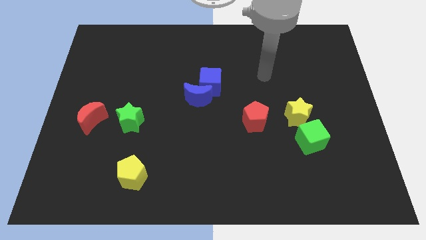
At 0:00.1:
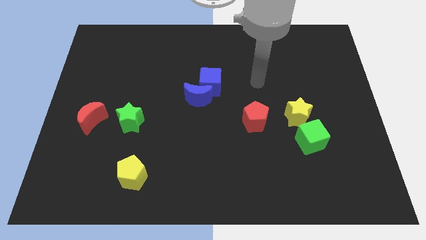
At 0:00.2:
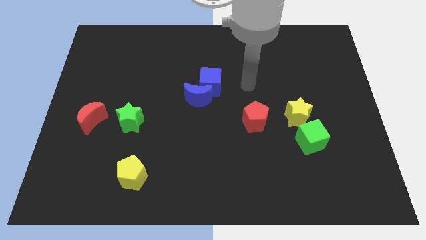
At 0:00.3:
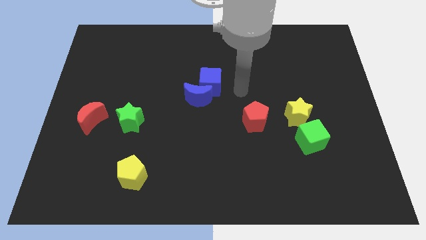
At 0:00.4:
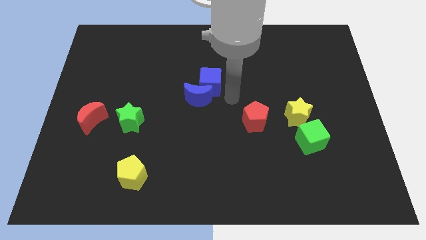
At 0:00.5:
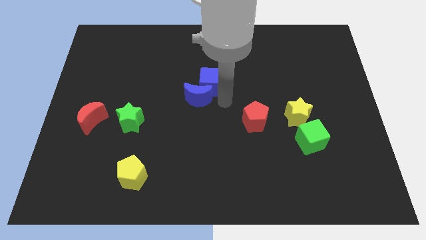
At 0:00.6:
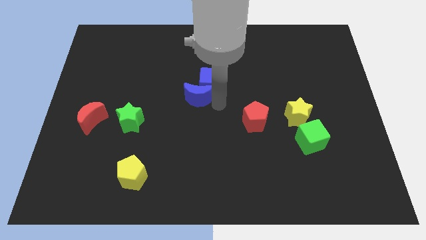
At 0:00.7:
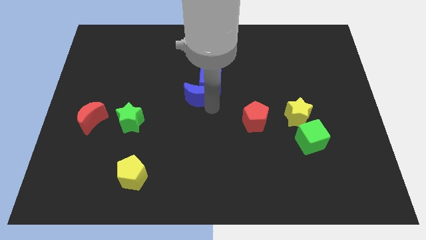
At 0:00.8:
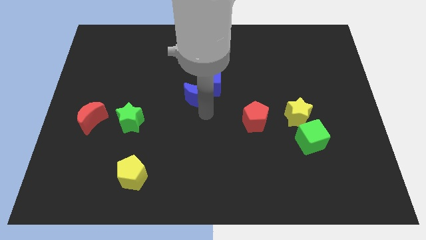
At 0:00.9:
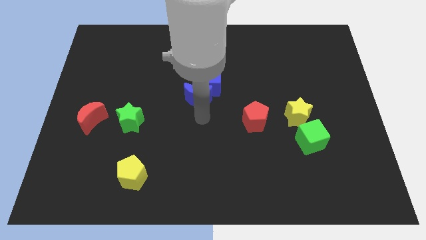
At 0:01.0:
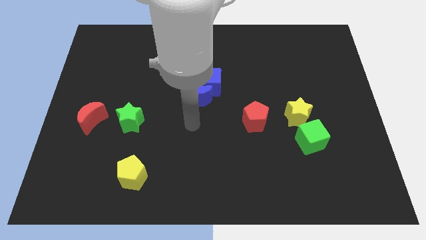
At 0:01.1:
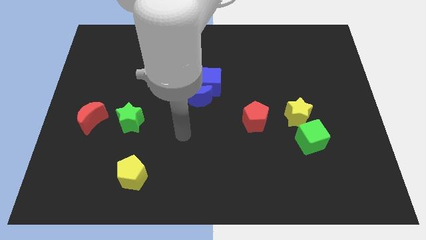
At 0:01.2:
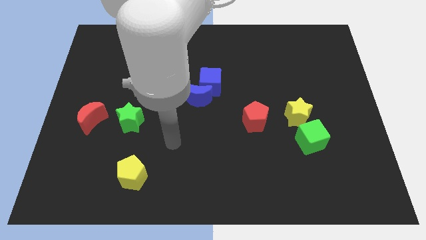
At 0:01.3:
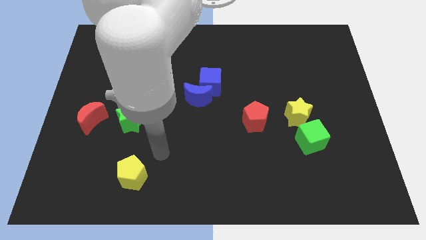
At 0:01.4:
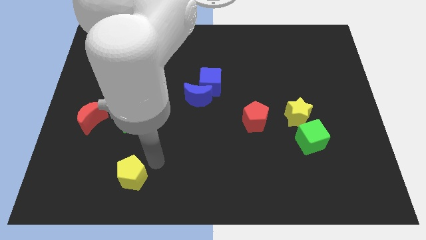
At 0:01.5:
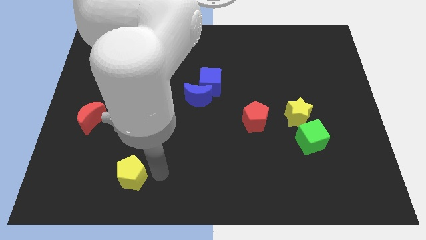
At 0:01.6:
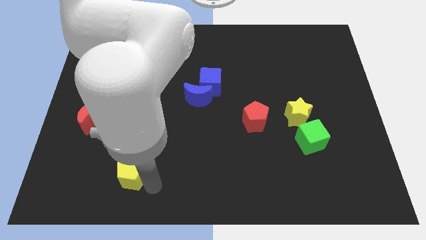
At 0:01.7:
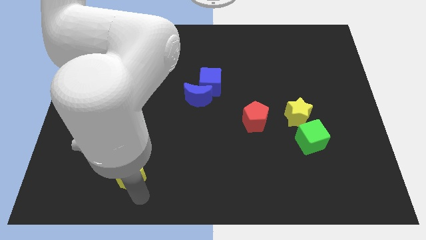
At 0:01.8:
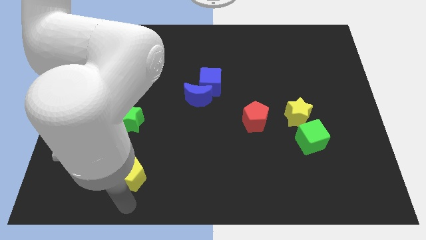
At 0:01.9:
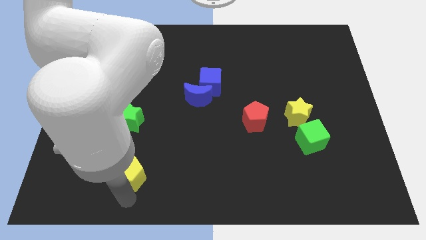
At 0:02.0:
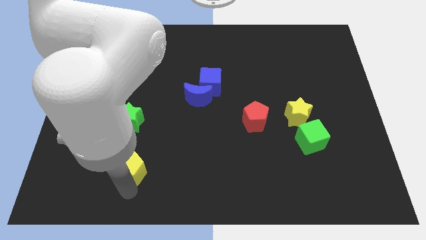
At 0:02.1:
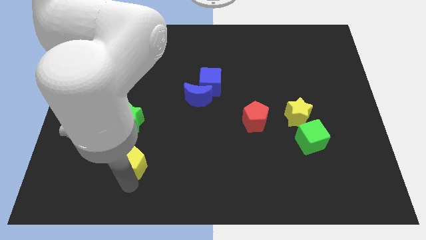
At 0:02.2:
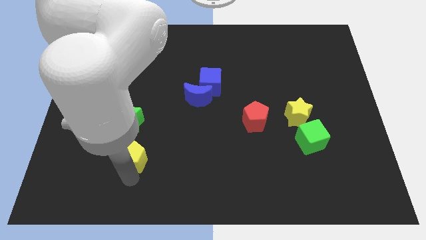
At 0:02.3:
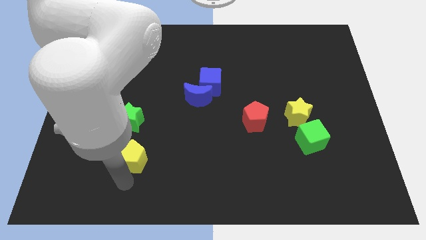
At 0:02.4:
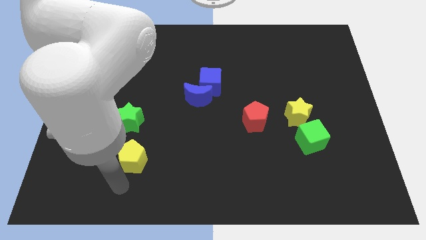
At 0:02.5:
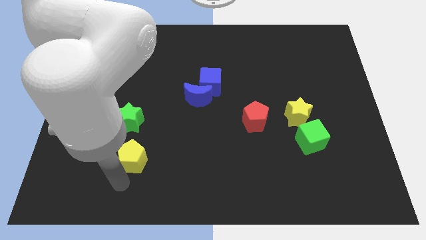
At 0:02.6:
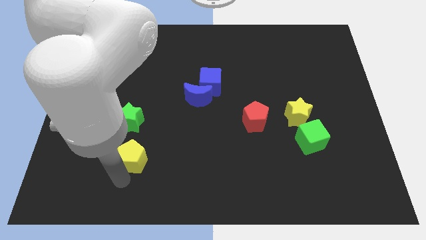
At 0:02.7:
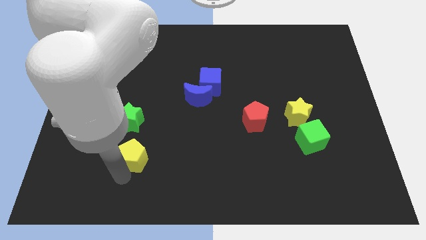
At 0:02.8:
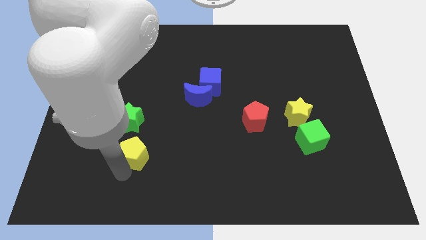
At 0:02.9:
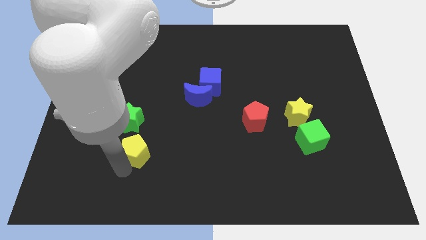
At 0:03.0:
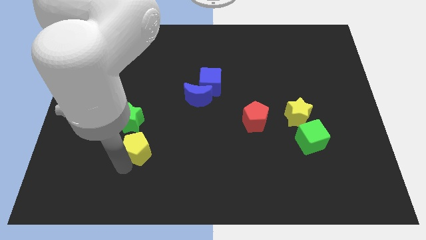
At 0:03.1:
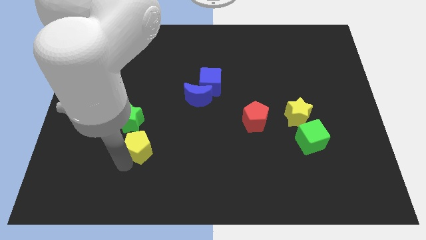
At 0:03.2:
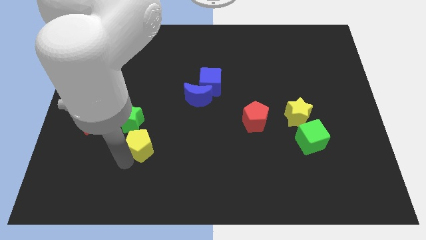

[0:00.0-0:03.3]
slightly slide the yellow pentagon upwards

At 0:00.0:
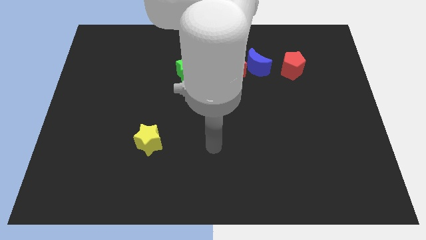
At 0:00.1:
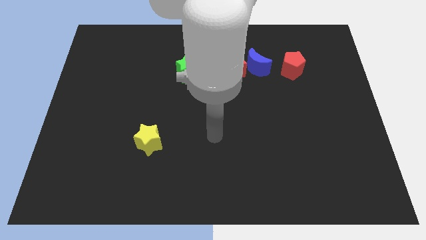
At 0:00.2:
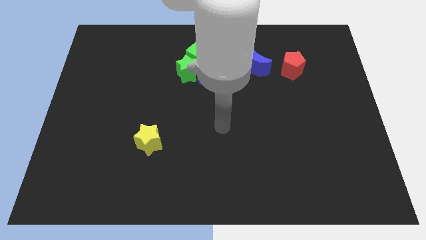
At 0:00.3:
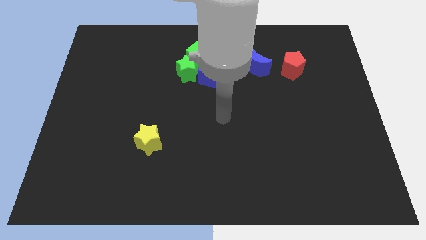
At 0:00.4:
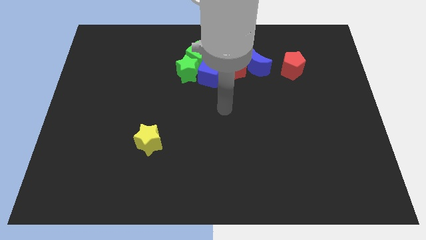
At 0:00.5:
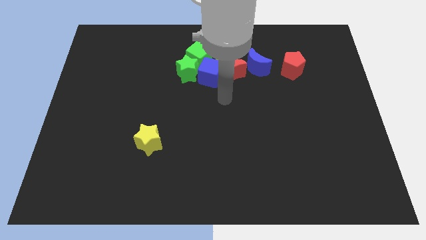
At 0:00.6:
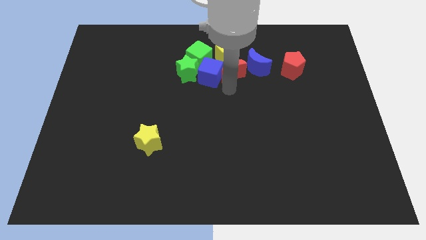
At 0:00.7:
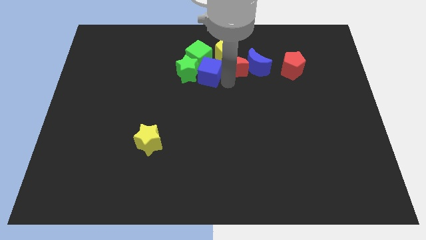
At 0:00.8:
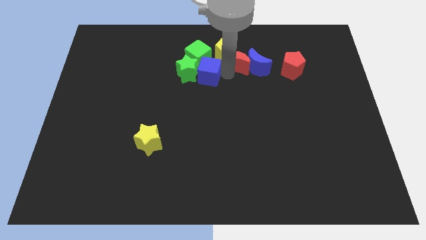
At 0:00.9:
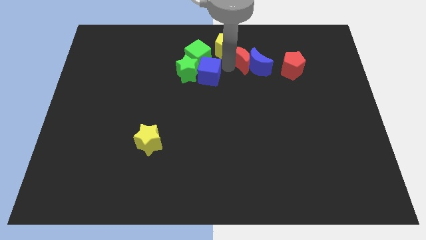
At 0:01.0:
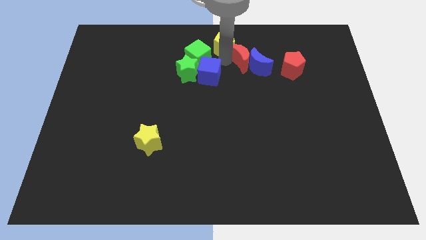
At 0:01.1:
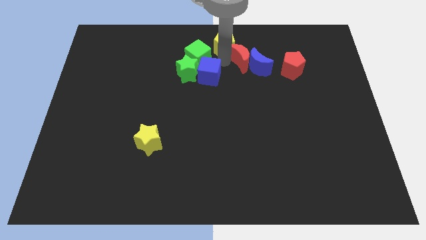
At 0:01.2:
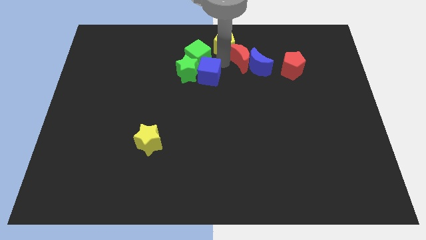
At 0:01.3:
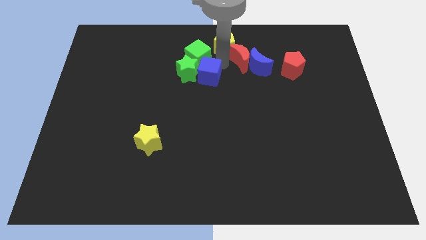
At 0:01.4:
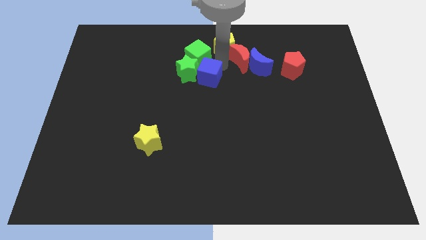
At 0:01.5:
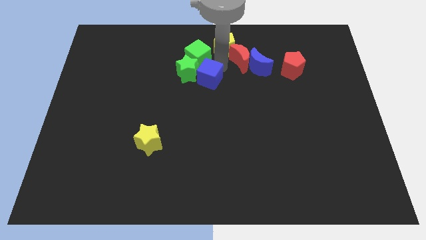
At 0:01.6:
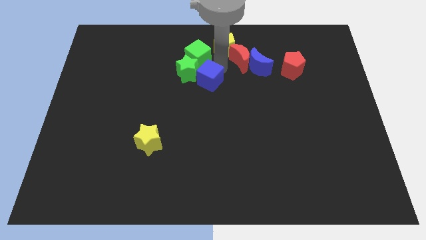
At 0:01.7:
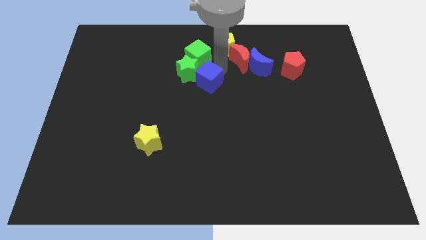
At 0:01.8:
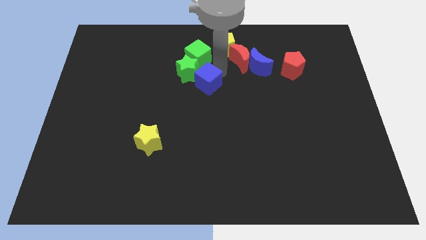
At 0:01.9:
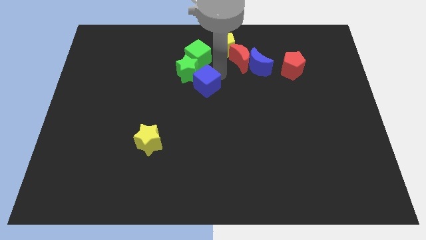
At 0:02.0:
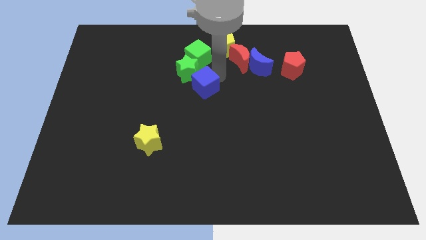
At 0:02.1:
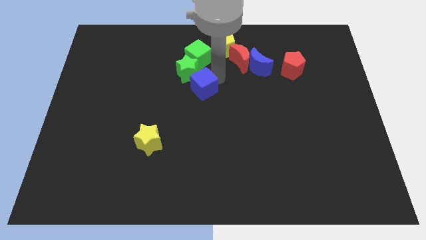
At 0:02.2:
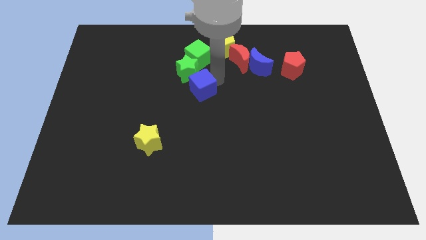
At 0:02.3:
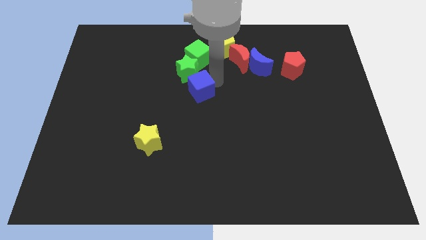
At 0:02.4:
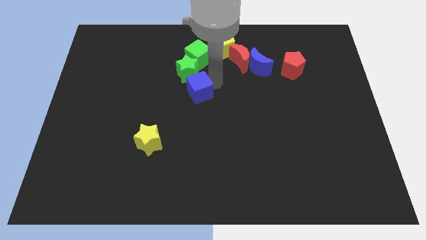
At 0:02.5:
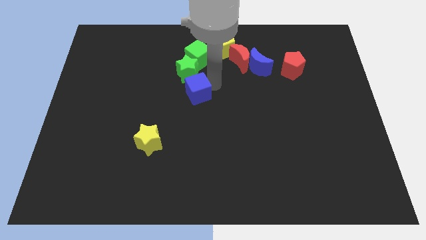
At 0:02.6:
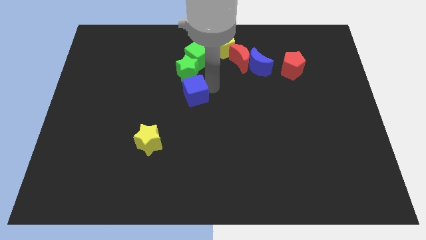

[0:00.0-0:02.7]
push the blue cube somewhat downwards and left diagonally

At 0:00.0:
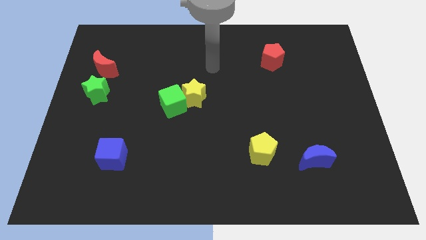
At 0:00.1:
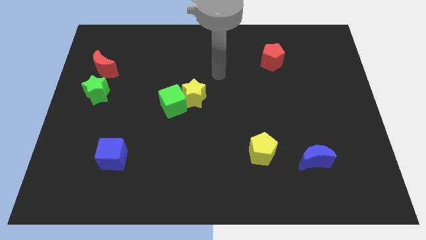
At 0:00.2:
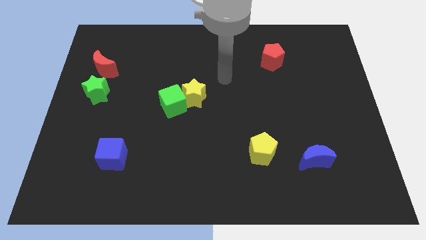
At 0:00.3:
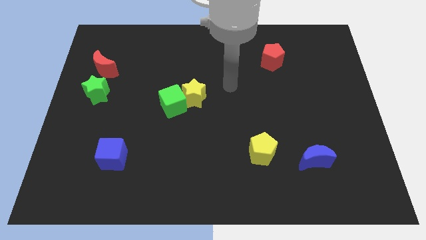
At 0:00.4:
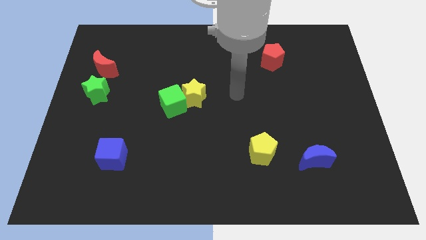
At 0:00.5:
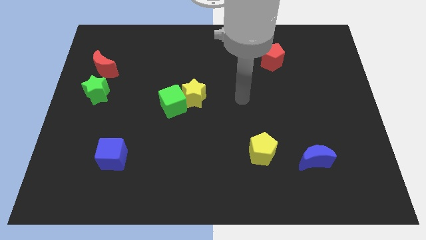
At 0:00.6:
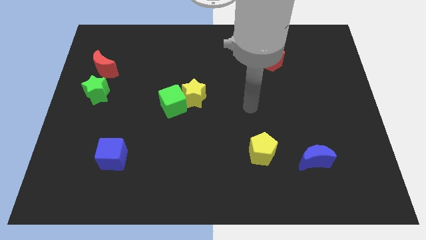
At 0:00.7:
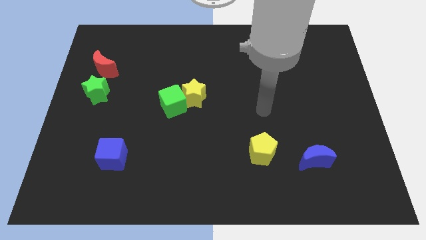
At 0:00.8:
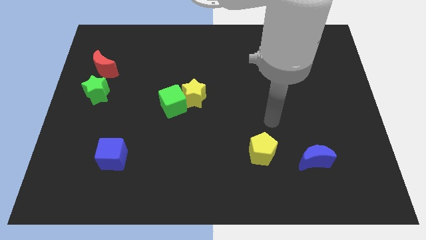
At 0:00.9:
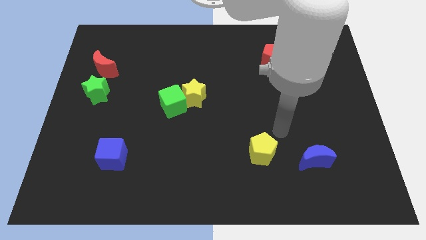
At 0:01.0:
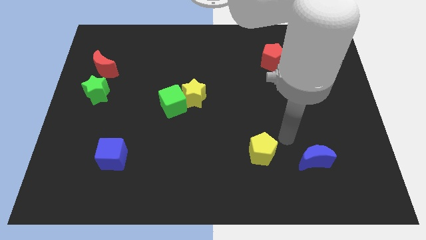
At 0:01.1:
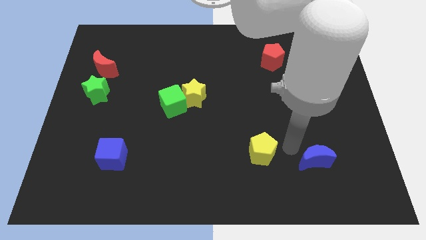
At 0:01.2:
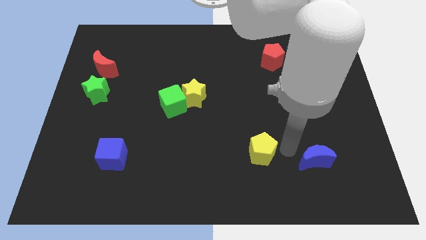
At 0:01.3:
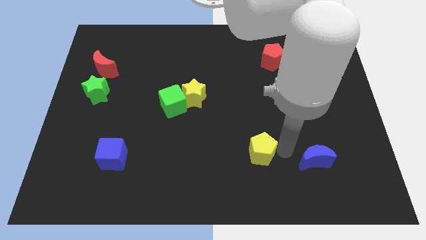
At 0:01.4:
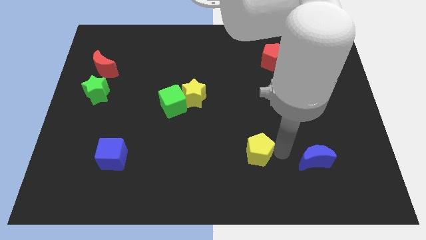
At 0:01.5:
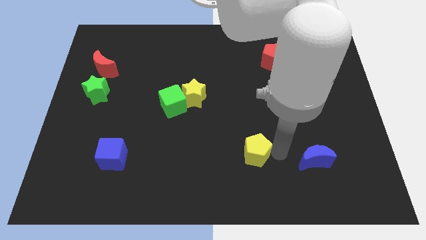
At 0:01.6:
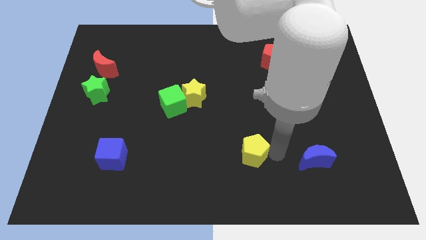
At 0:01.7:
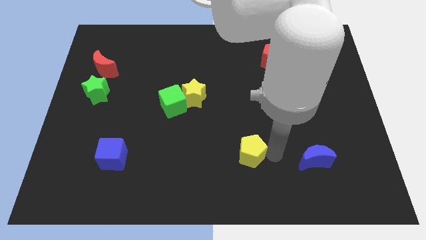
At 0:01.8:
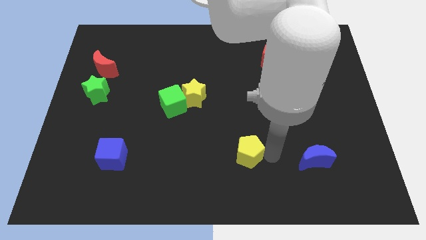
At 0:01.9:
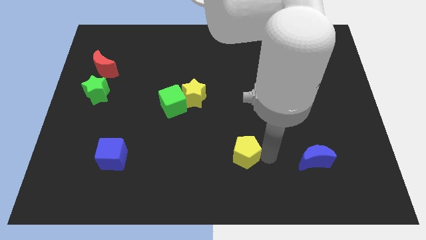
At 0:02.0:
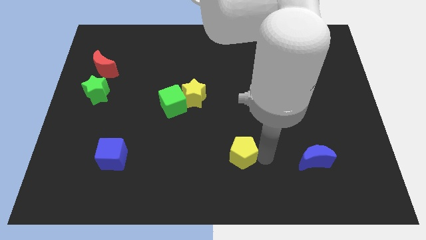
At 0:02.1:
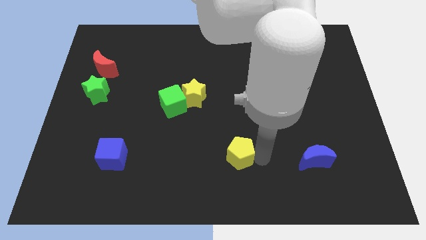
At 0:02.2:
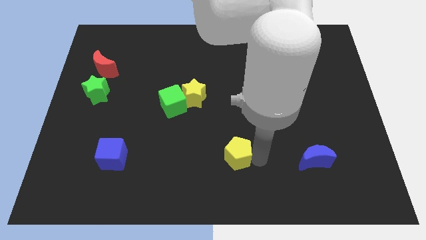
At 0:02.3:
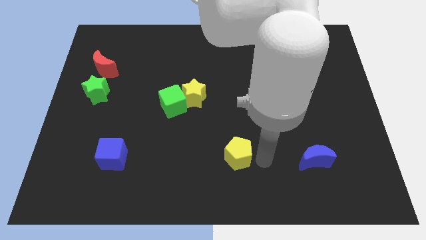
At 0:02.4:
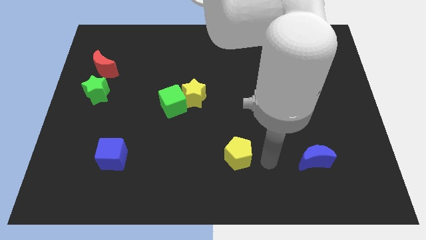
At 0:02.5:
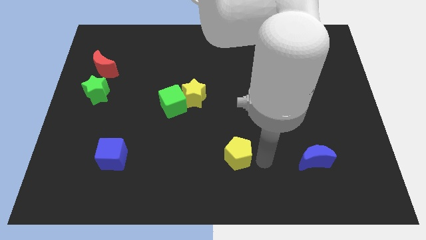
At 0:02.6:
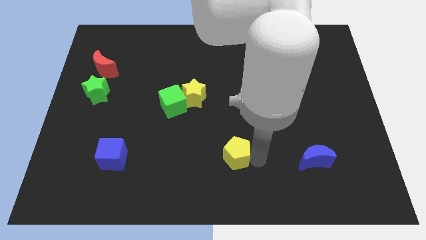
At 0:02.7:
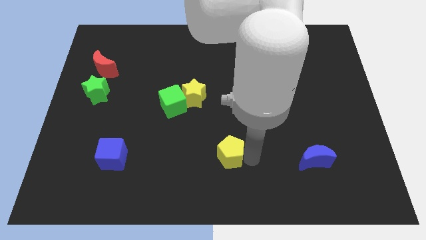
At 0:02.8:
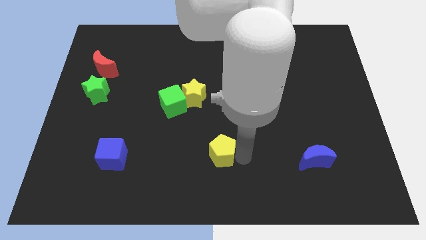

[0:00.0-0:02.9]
slide the yellow pentagon a bit to the left
